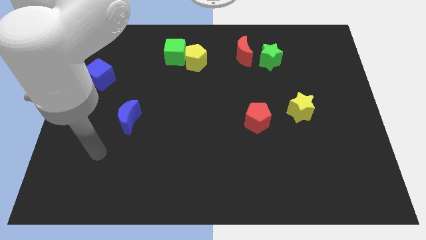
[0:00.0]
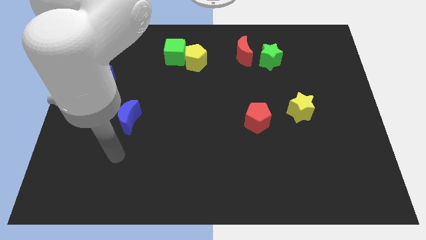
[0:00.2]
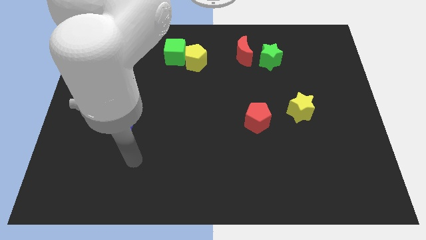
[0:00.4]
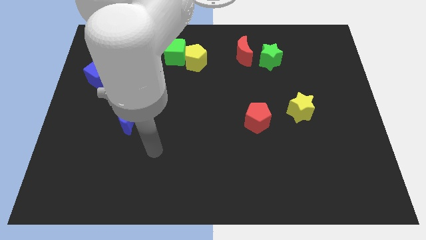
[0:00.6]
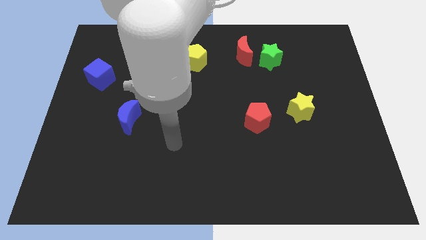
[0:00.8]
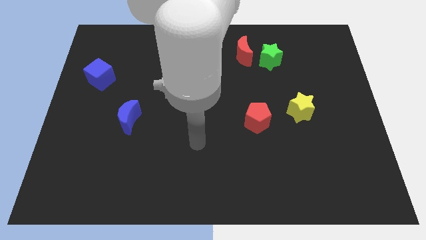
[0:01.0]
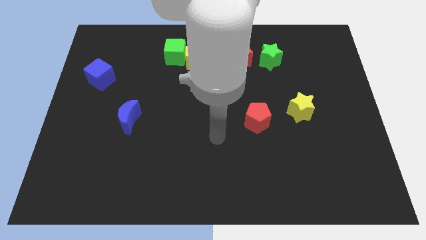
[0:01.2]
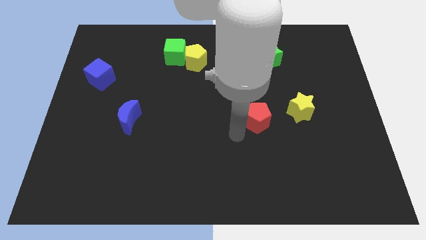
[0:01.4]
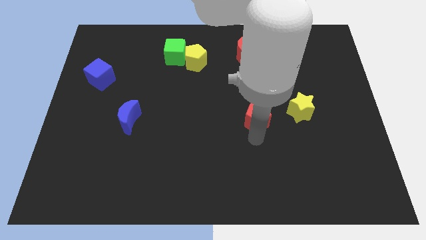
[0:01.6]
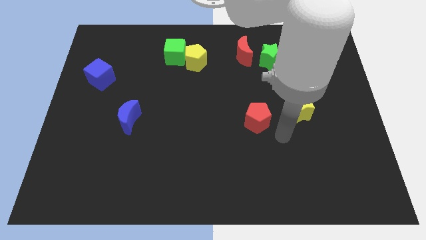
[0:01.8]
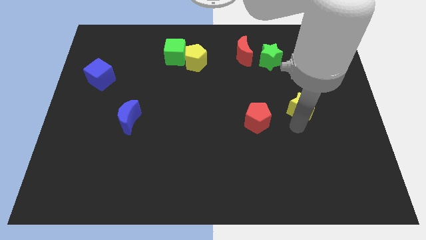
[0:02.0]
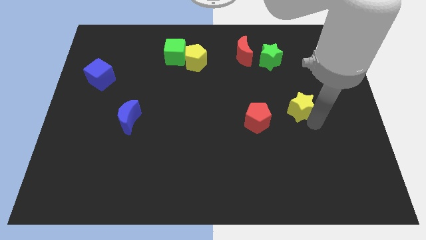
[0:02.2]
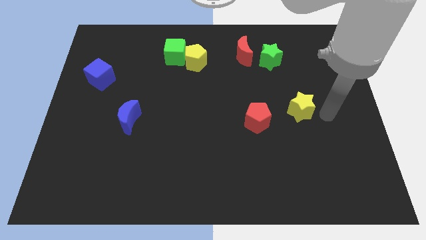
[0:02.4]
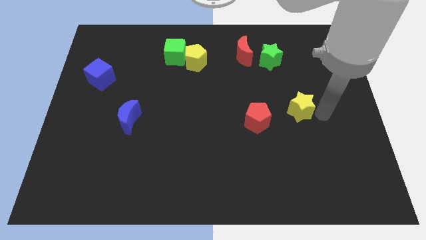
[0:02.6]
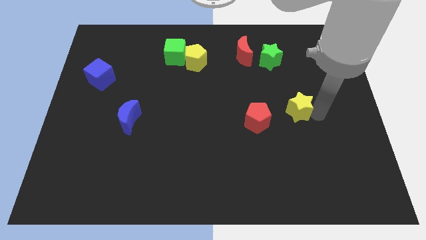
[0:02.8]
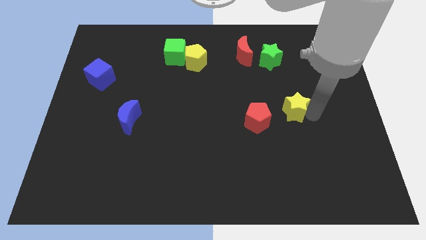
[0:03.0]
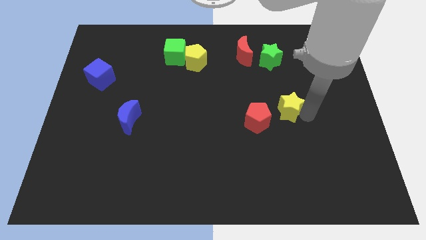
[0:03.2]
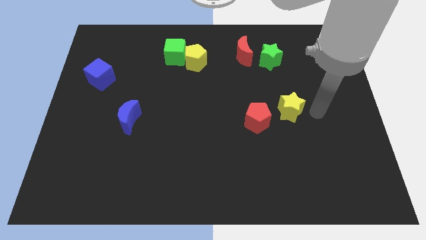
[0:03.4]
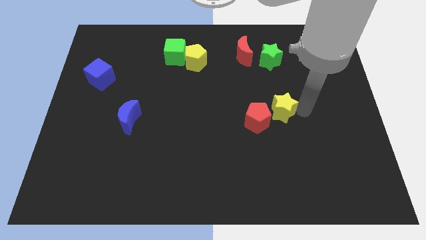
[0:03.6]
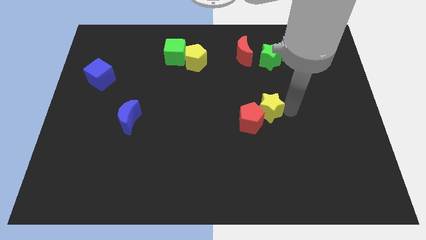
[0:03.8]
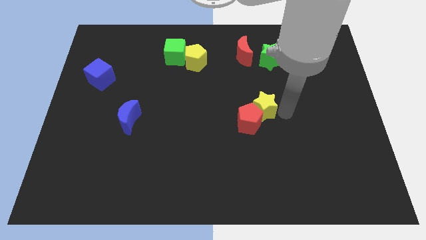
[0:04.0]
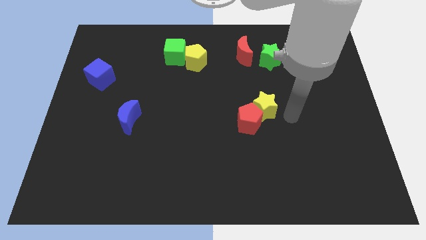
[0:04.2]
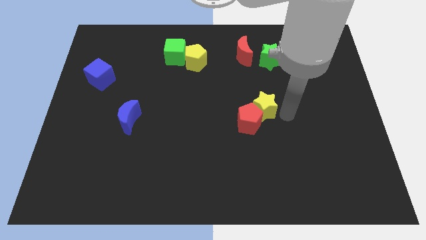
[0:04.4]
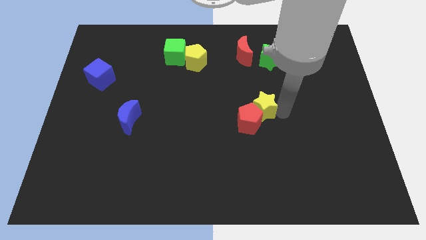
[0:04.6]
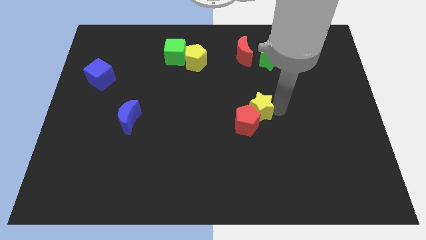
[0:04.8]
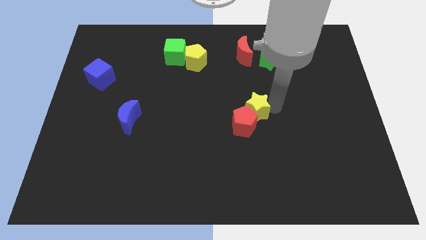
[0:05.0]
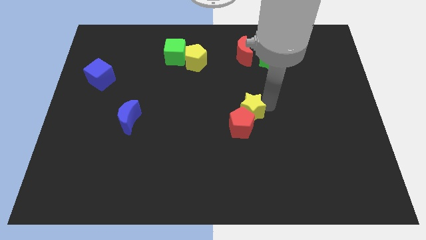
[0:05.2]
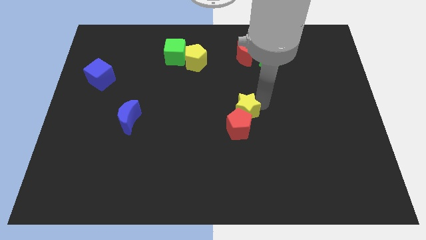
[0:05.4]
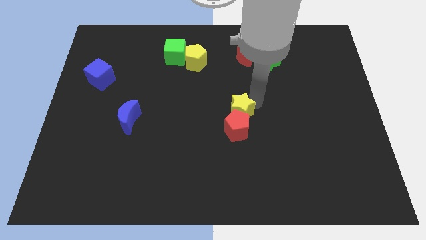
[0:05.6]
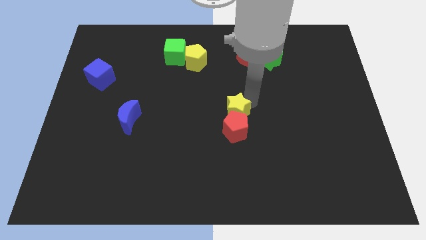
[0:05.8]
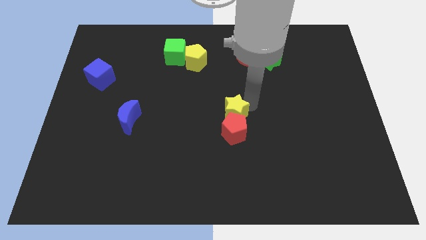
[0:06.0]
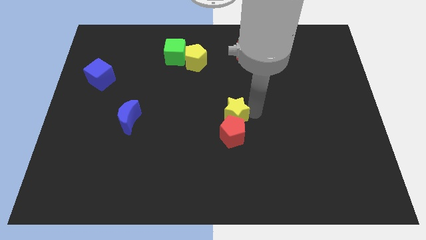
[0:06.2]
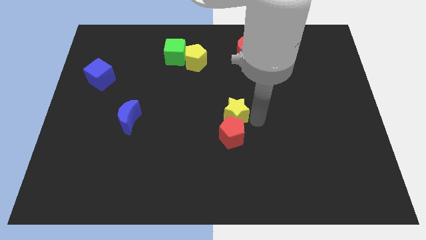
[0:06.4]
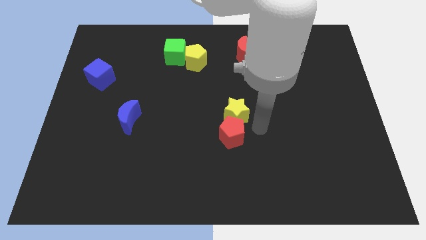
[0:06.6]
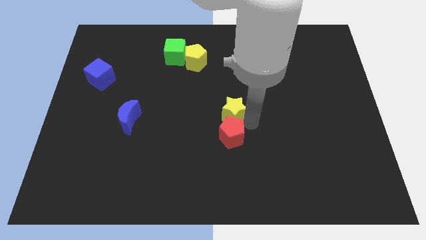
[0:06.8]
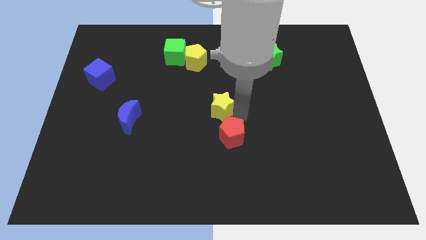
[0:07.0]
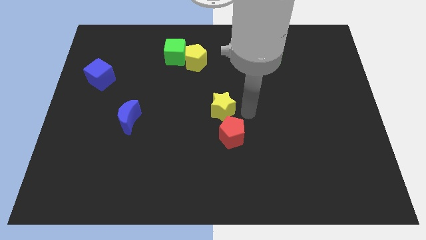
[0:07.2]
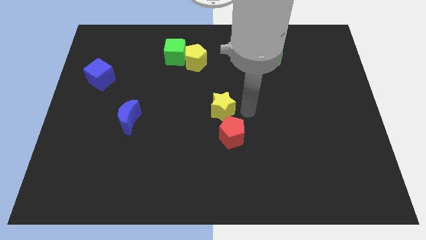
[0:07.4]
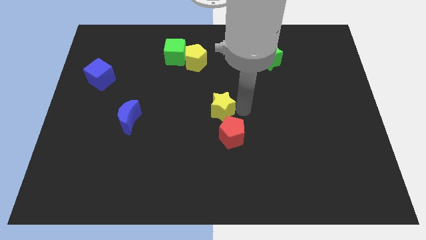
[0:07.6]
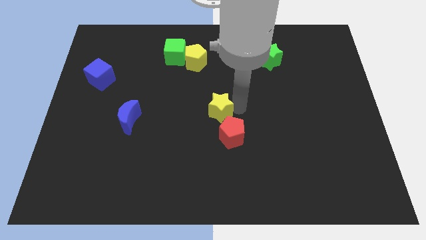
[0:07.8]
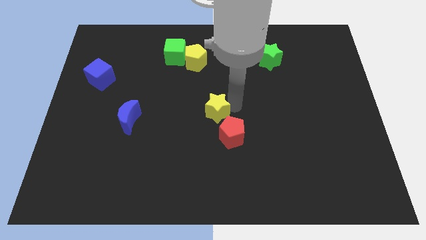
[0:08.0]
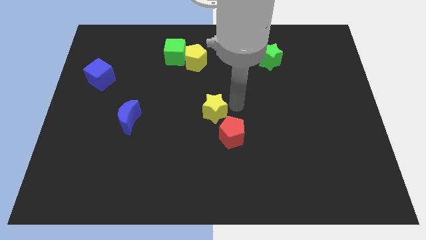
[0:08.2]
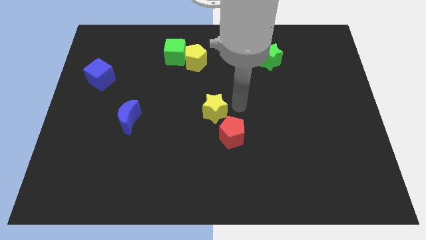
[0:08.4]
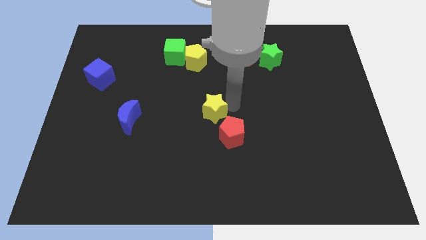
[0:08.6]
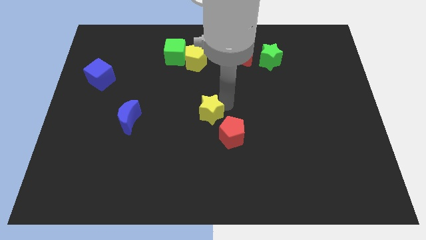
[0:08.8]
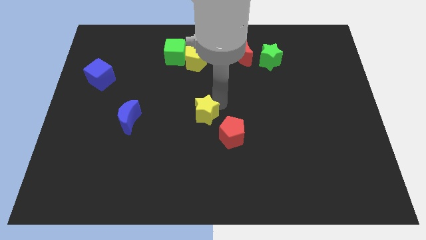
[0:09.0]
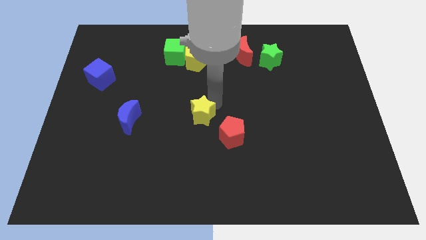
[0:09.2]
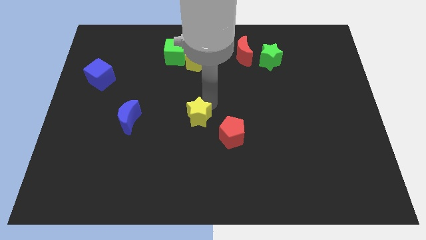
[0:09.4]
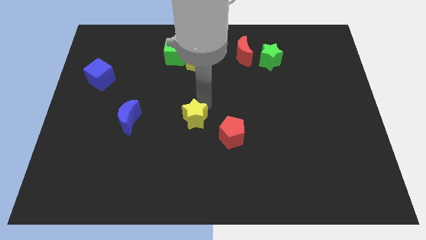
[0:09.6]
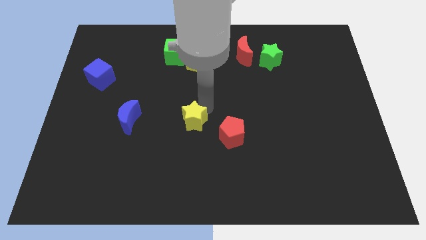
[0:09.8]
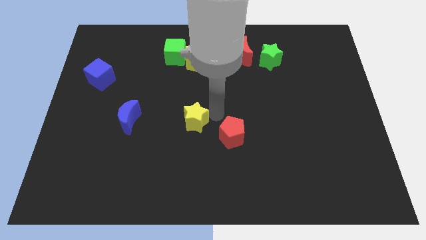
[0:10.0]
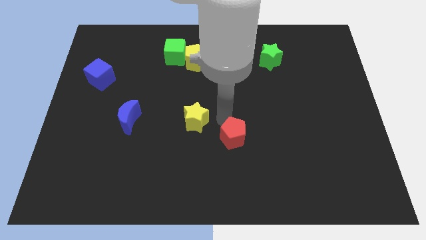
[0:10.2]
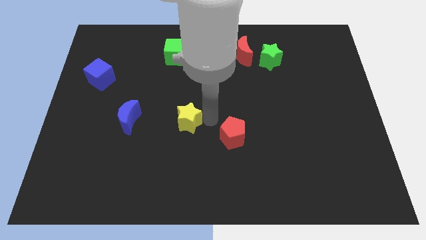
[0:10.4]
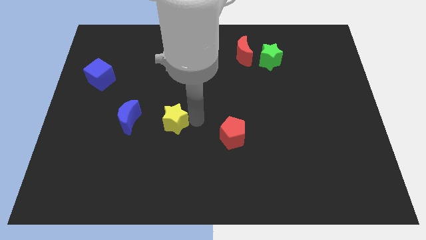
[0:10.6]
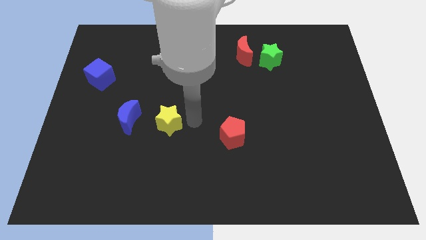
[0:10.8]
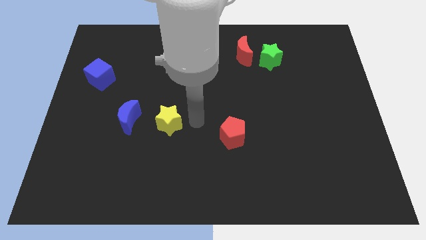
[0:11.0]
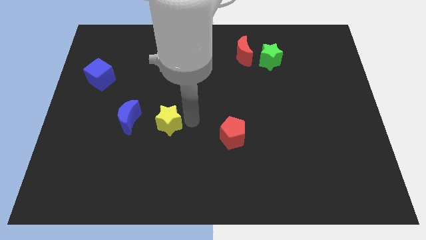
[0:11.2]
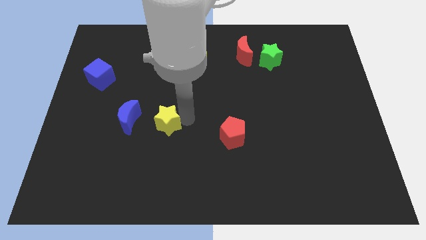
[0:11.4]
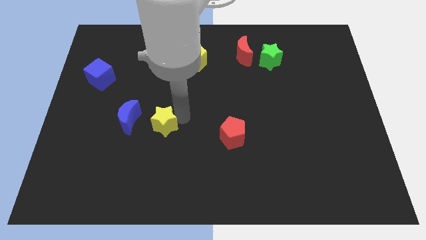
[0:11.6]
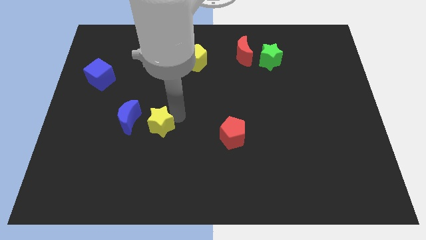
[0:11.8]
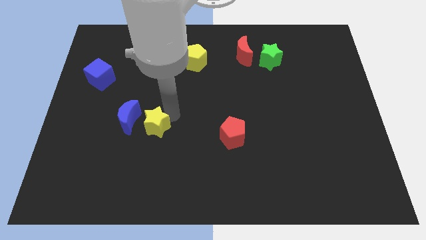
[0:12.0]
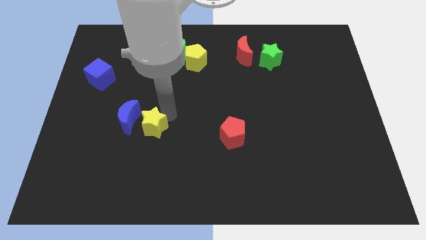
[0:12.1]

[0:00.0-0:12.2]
slide the yellow star next to the blue moon

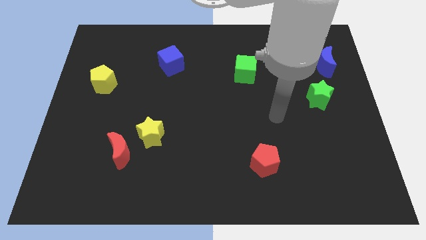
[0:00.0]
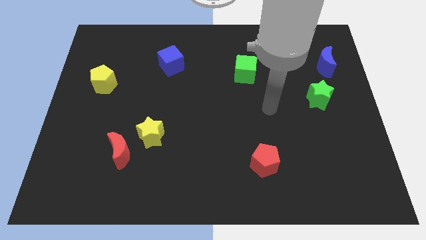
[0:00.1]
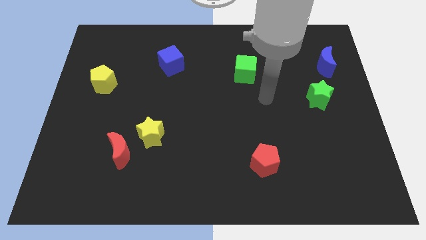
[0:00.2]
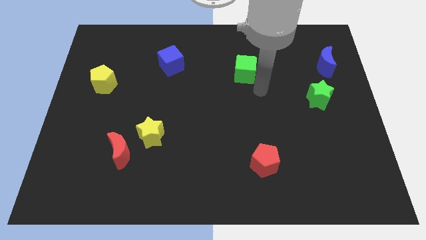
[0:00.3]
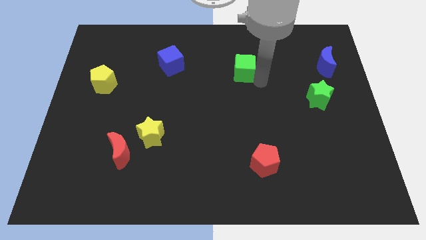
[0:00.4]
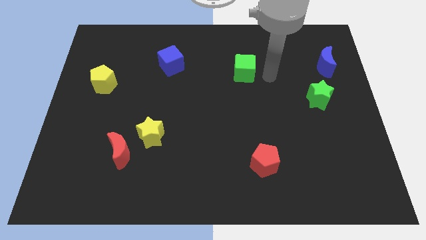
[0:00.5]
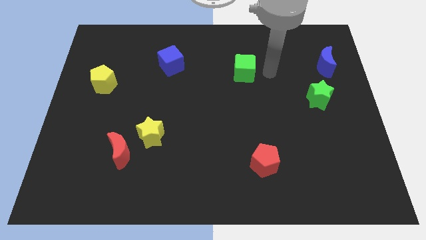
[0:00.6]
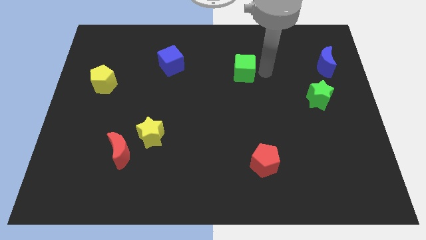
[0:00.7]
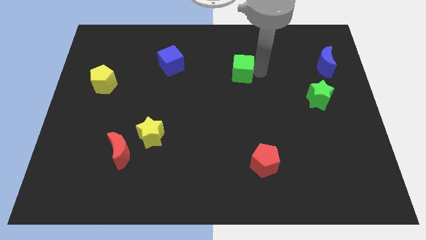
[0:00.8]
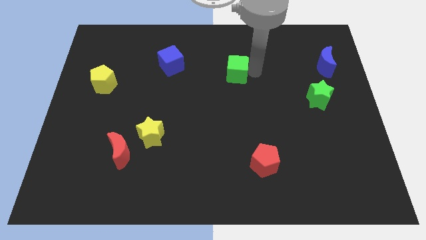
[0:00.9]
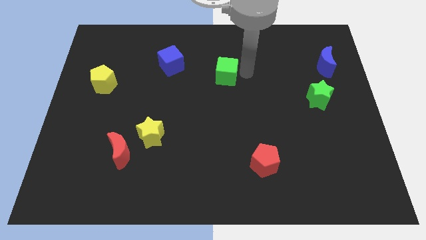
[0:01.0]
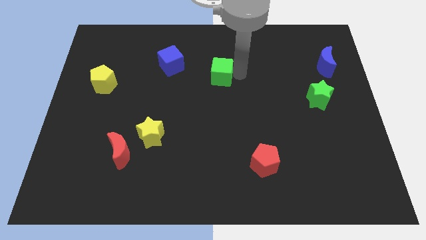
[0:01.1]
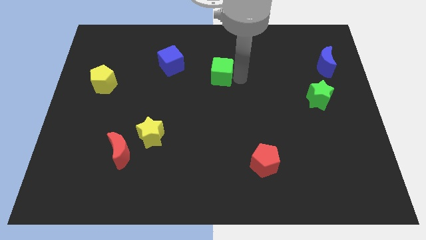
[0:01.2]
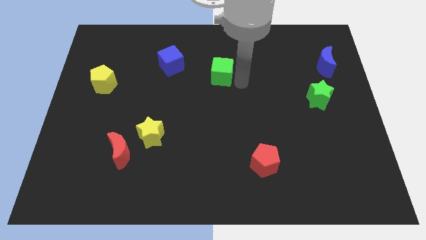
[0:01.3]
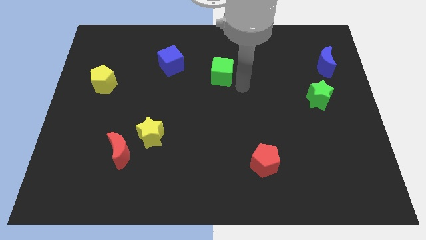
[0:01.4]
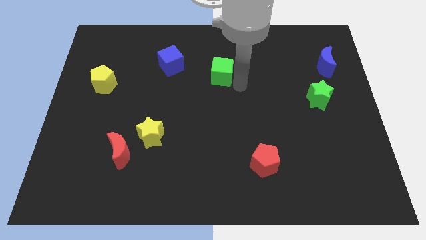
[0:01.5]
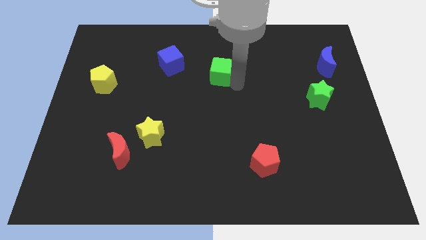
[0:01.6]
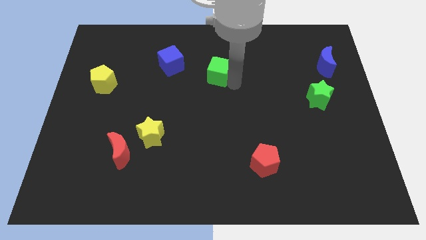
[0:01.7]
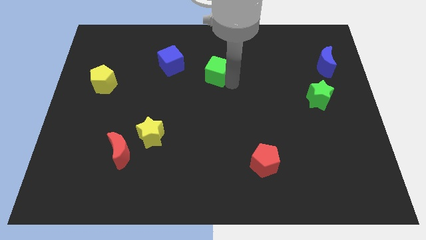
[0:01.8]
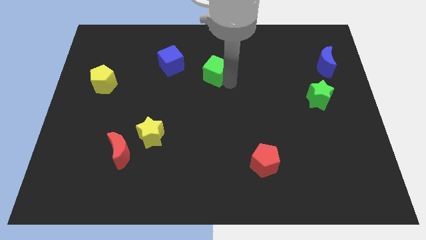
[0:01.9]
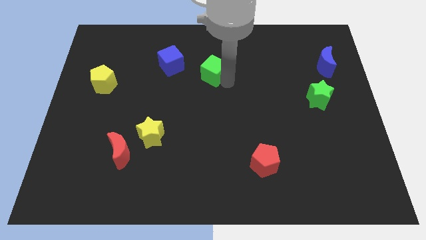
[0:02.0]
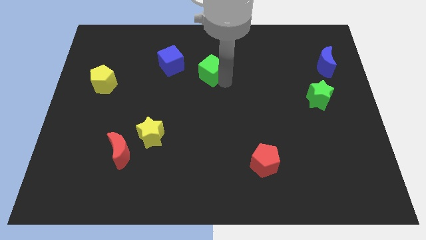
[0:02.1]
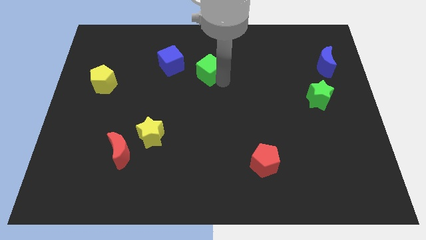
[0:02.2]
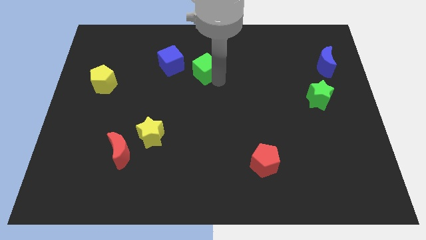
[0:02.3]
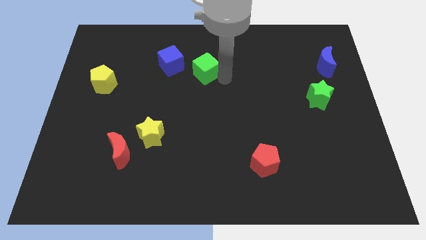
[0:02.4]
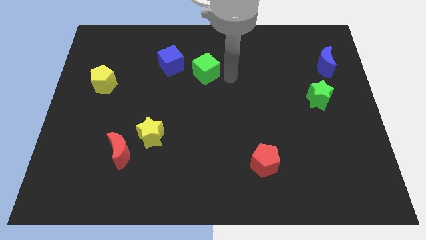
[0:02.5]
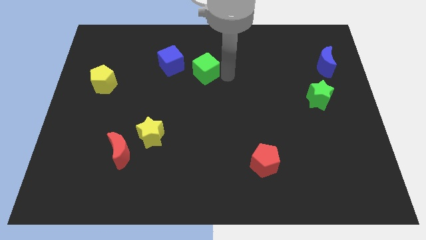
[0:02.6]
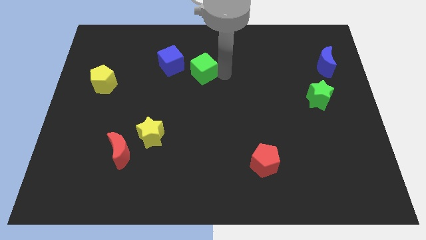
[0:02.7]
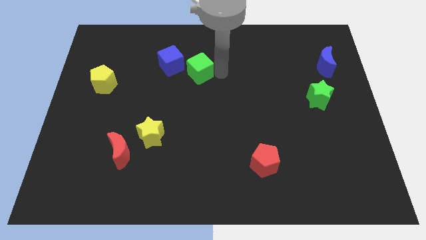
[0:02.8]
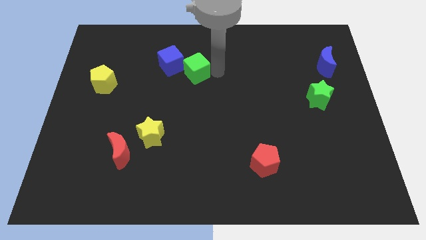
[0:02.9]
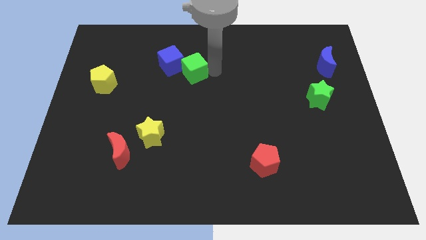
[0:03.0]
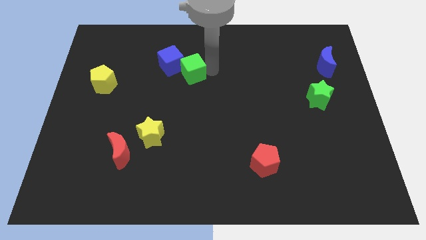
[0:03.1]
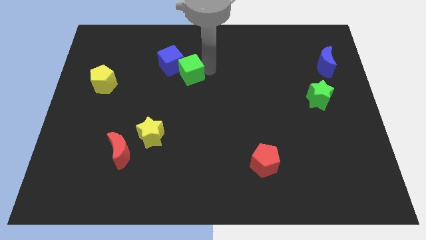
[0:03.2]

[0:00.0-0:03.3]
slide the green cube towards the blue cube
